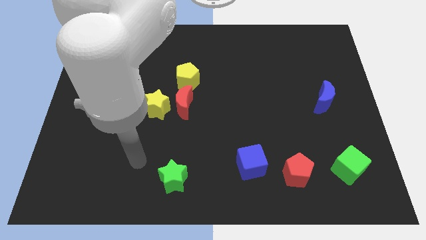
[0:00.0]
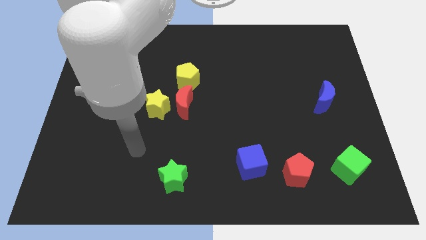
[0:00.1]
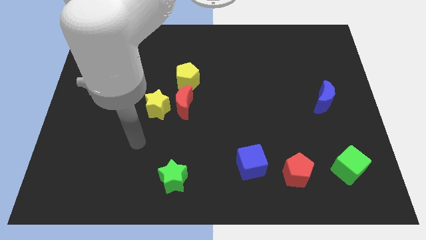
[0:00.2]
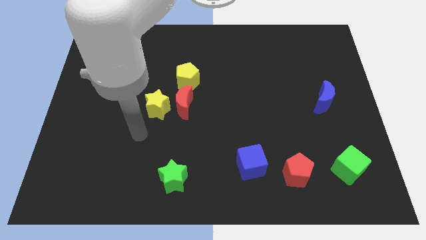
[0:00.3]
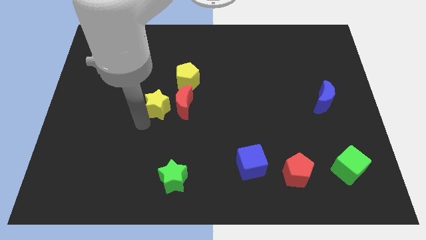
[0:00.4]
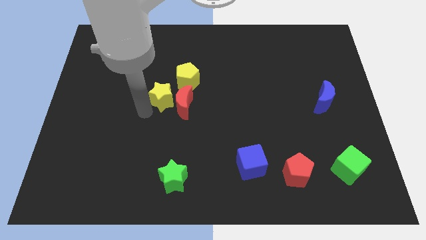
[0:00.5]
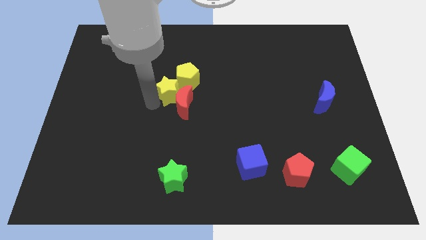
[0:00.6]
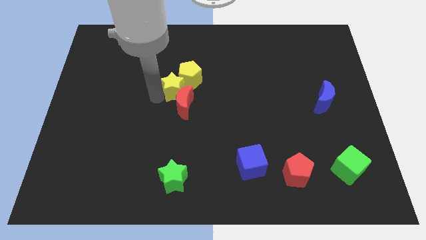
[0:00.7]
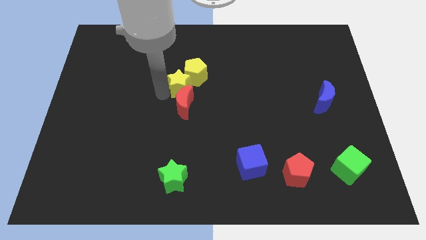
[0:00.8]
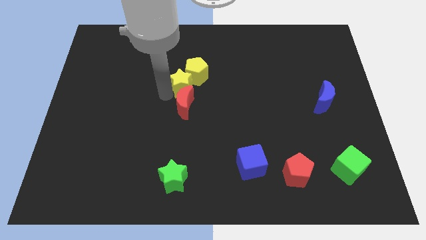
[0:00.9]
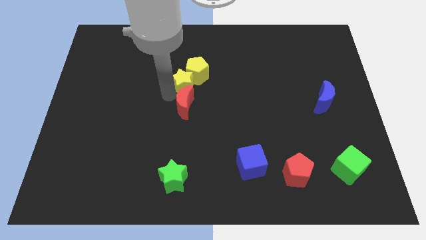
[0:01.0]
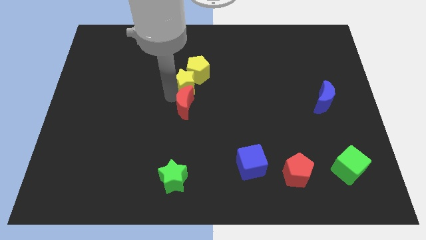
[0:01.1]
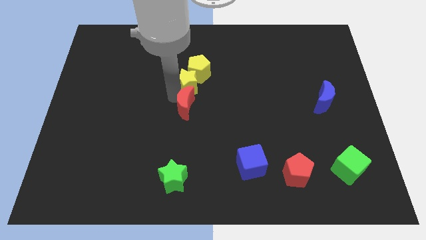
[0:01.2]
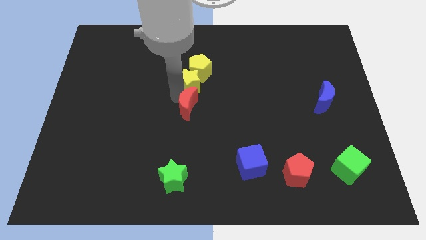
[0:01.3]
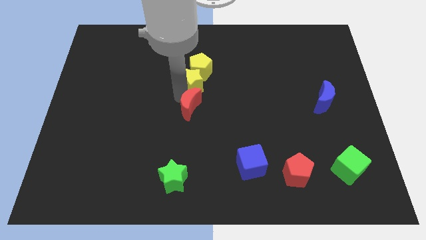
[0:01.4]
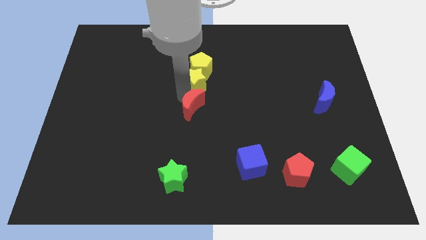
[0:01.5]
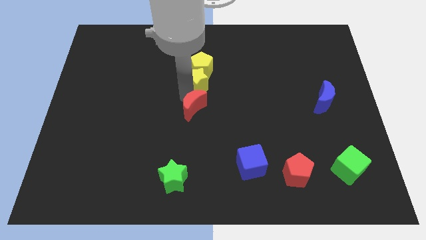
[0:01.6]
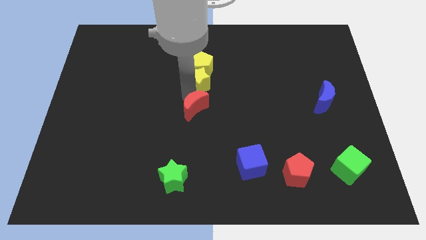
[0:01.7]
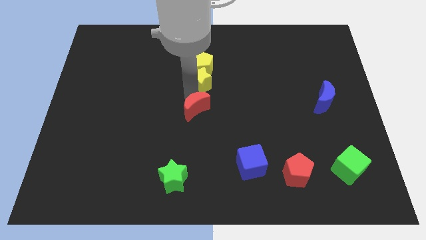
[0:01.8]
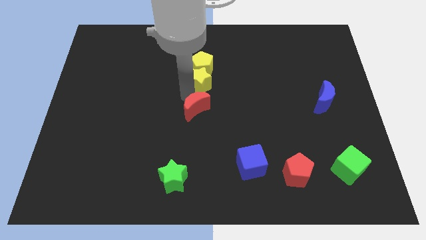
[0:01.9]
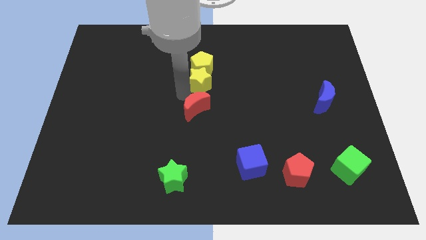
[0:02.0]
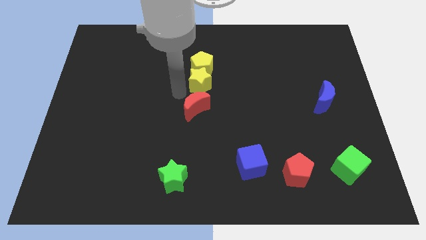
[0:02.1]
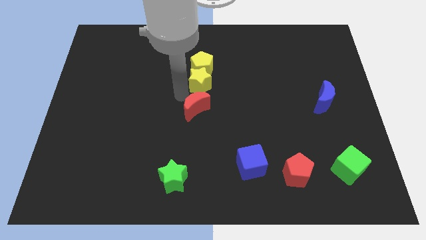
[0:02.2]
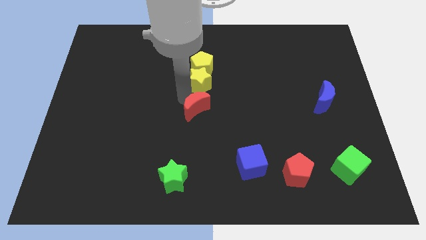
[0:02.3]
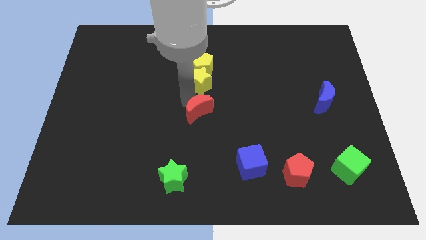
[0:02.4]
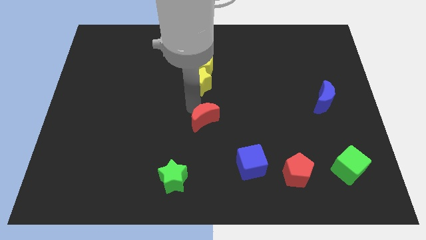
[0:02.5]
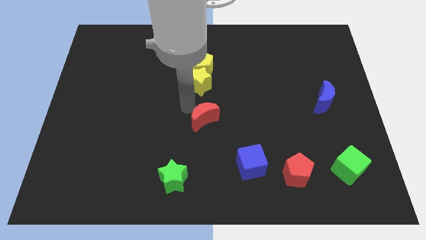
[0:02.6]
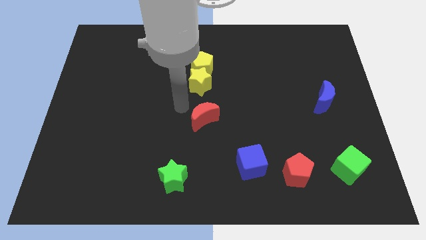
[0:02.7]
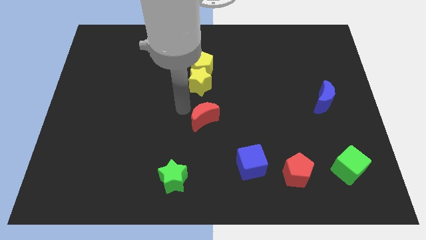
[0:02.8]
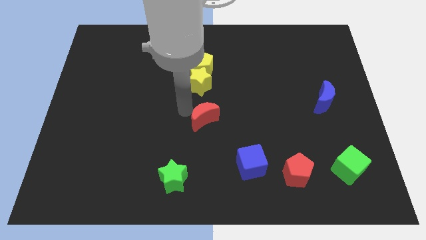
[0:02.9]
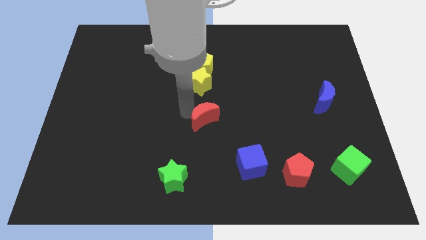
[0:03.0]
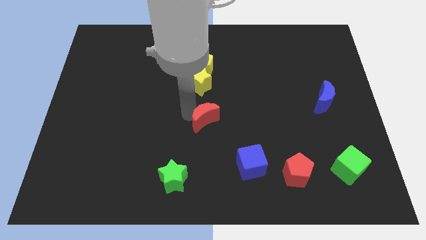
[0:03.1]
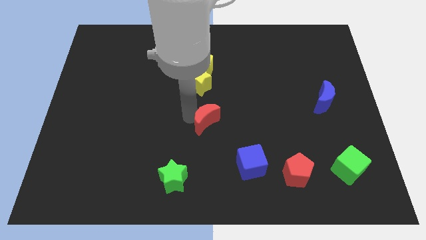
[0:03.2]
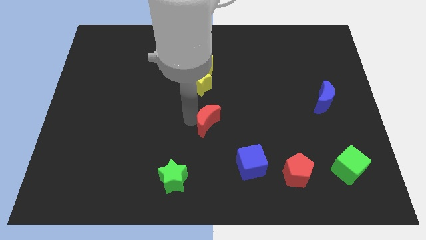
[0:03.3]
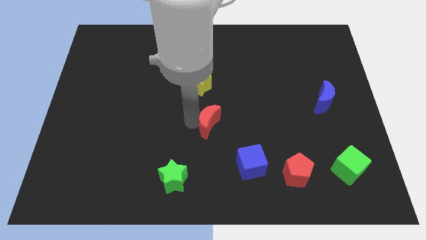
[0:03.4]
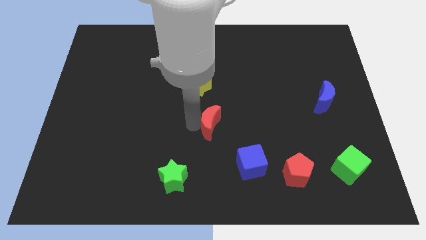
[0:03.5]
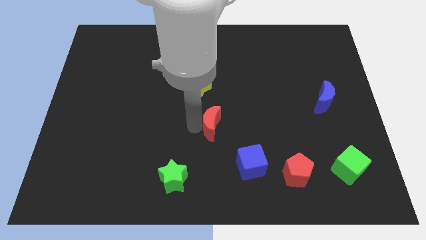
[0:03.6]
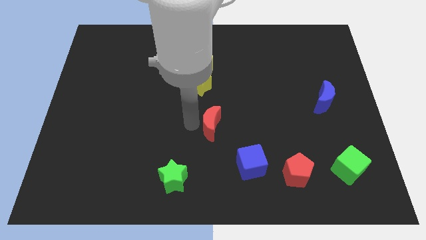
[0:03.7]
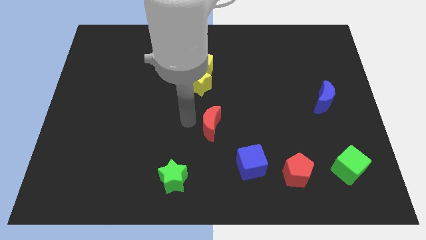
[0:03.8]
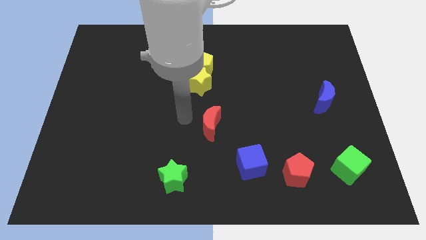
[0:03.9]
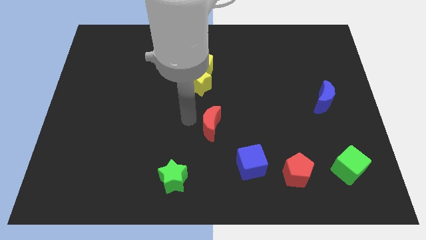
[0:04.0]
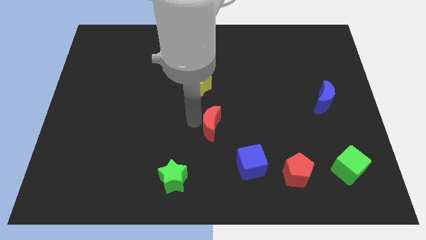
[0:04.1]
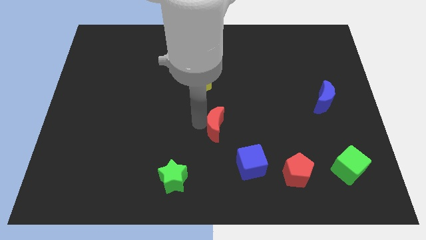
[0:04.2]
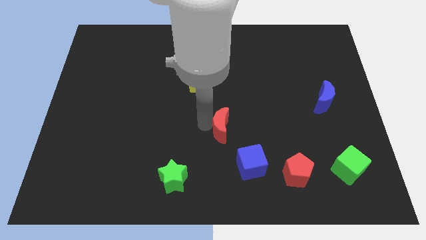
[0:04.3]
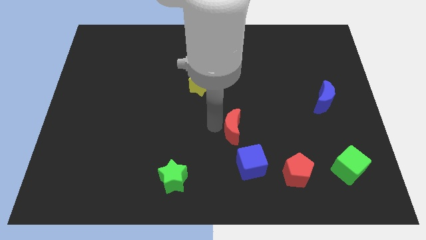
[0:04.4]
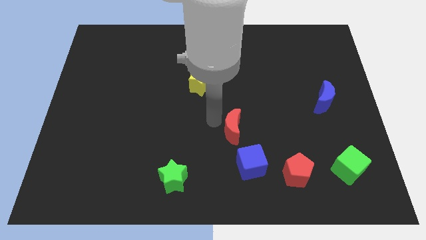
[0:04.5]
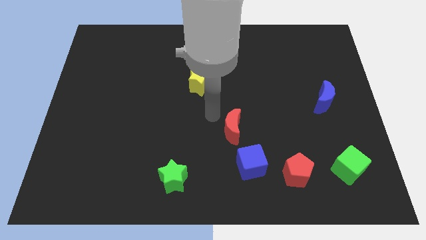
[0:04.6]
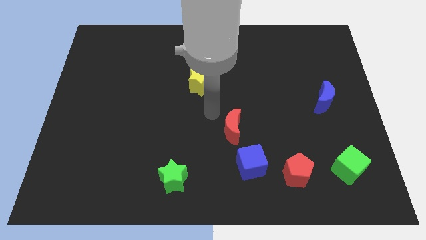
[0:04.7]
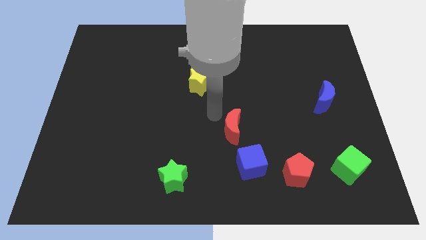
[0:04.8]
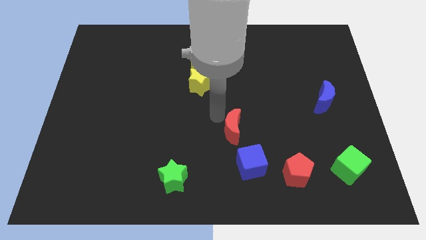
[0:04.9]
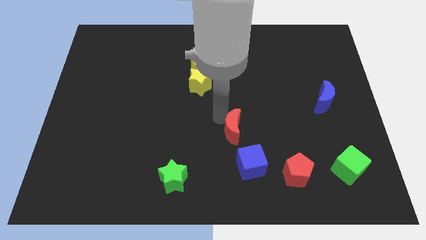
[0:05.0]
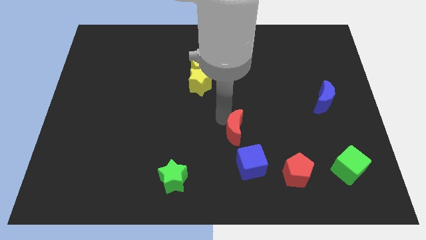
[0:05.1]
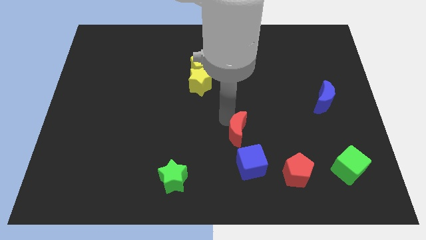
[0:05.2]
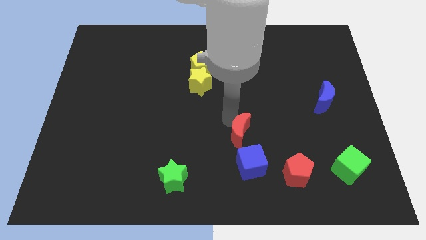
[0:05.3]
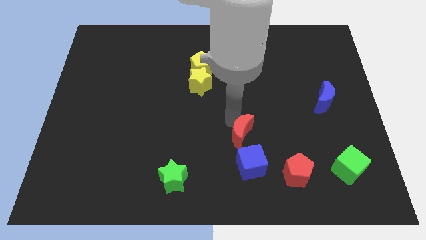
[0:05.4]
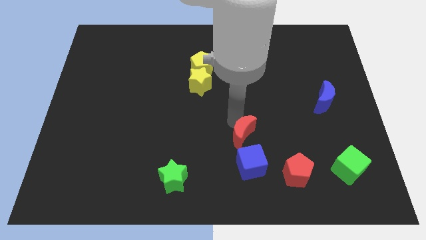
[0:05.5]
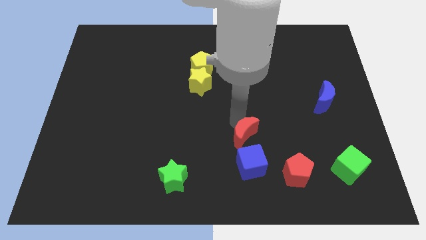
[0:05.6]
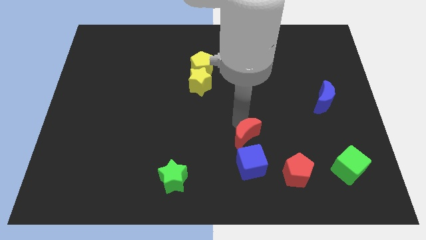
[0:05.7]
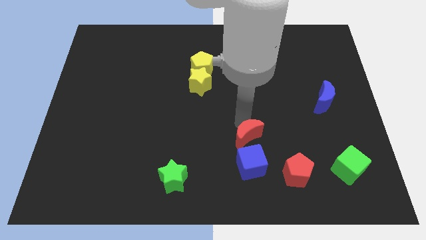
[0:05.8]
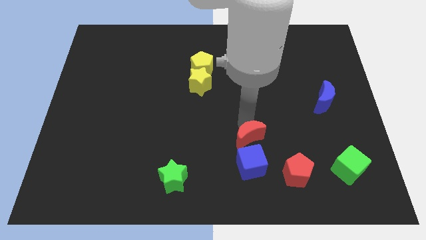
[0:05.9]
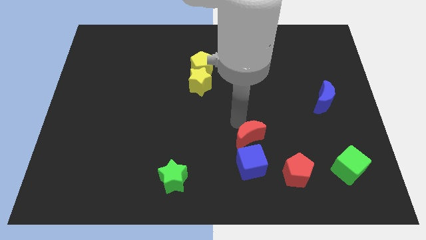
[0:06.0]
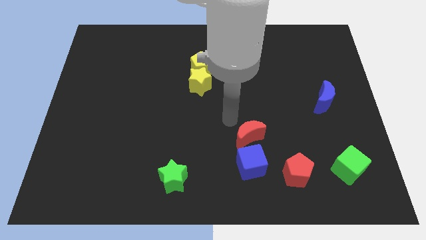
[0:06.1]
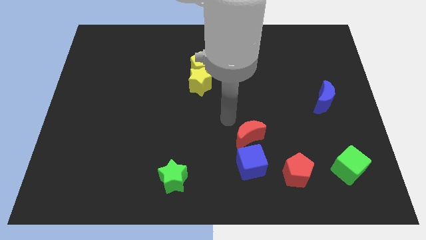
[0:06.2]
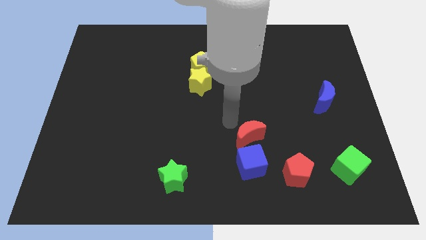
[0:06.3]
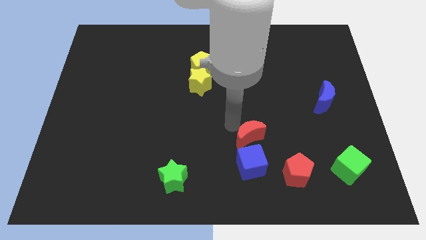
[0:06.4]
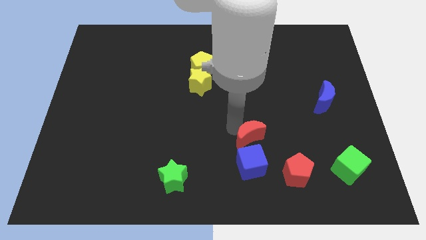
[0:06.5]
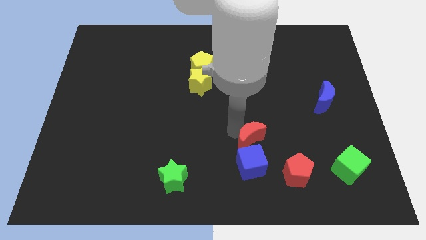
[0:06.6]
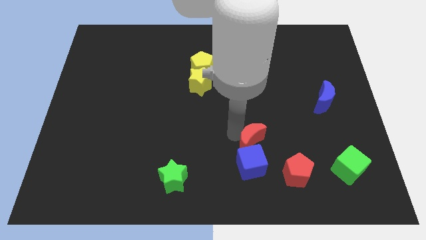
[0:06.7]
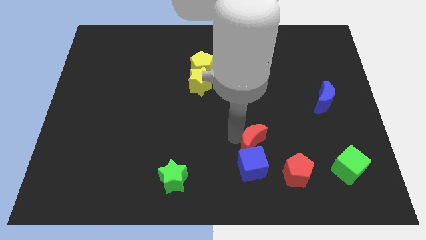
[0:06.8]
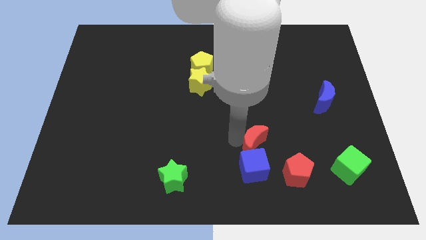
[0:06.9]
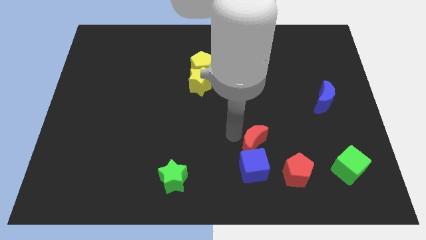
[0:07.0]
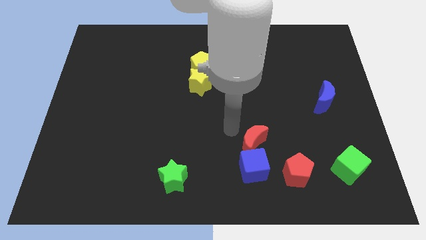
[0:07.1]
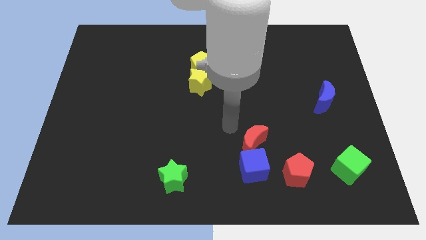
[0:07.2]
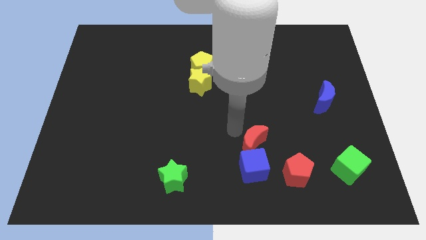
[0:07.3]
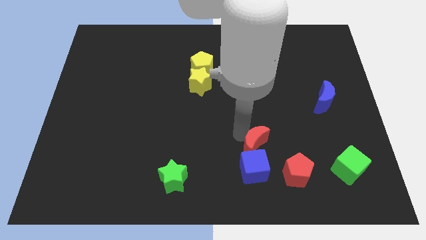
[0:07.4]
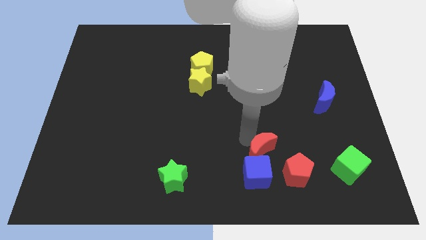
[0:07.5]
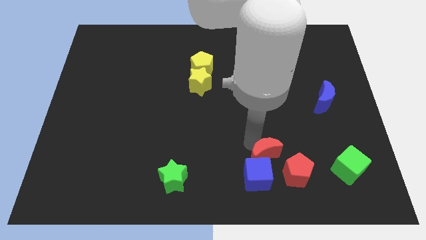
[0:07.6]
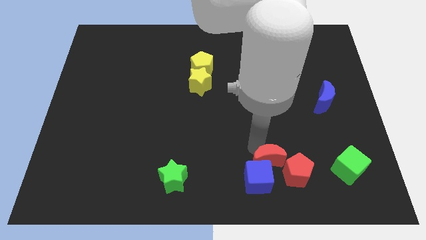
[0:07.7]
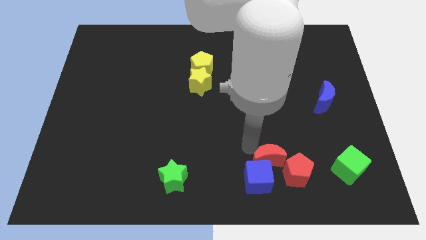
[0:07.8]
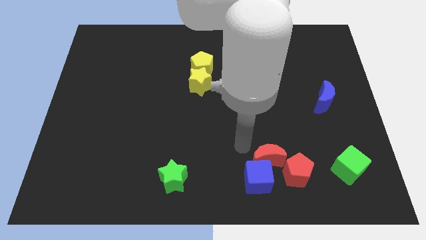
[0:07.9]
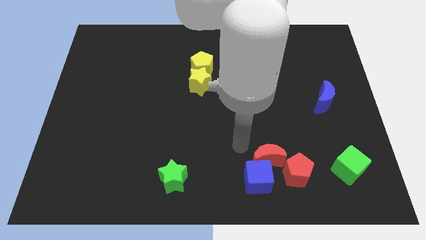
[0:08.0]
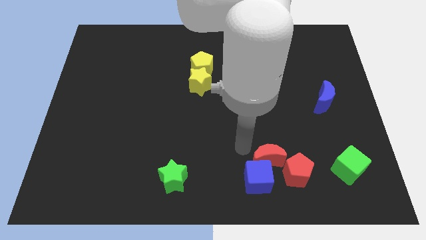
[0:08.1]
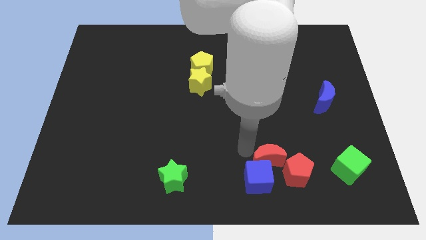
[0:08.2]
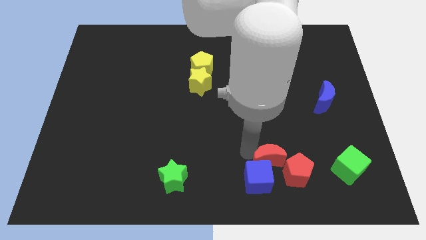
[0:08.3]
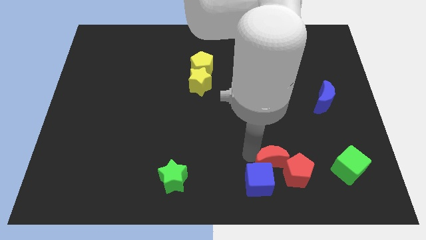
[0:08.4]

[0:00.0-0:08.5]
slide the red moon close to the red pentagon
